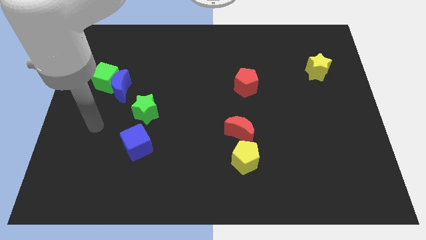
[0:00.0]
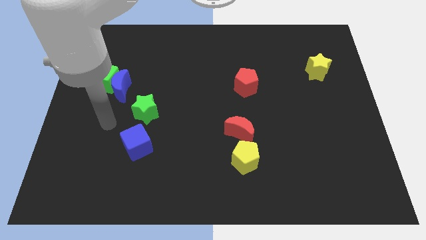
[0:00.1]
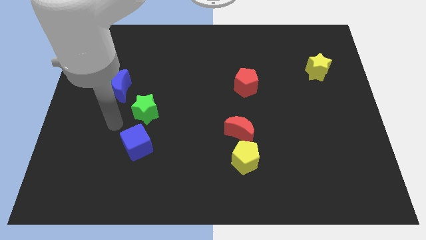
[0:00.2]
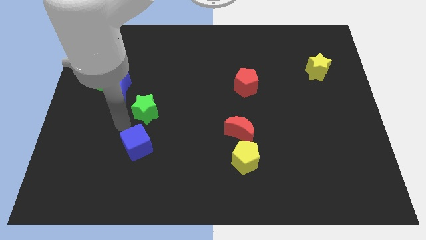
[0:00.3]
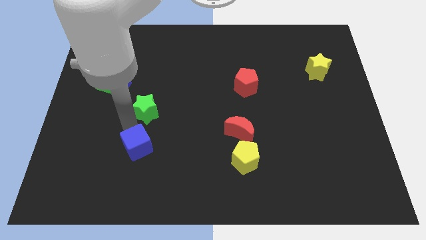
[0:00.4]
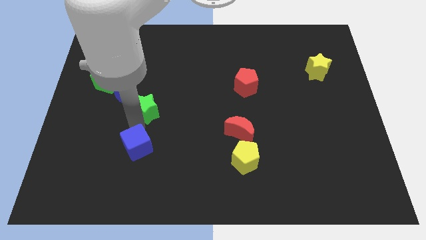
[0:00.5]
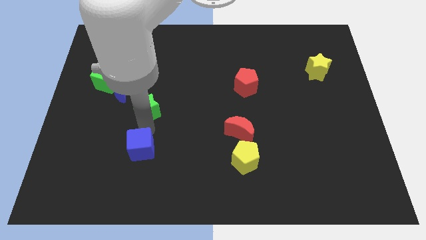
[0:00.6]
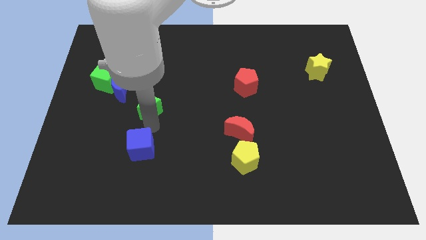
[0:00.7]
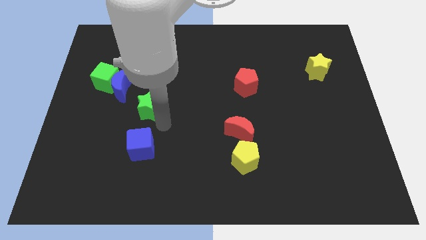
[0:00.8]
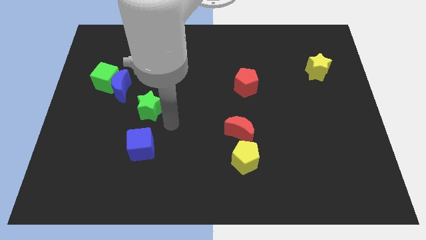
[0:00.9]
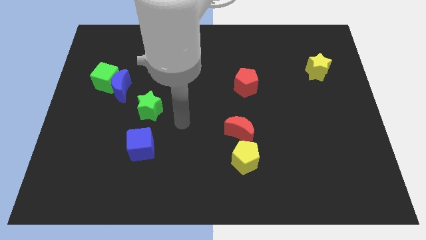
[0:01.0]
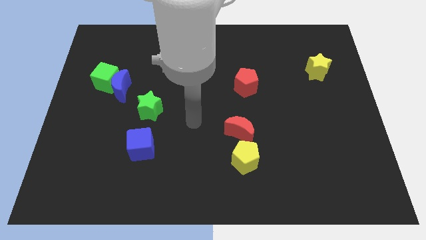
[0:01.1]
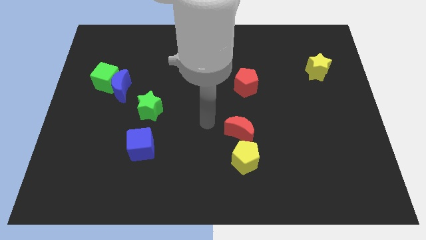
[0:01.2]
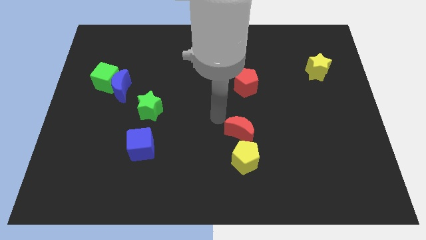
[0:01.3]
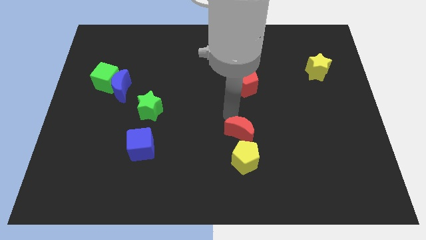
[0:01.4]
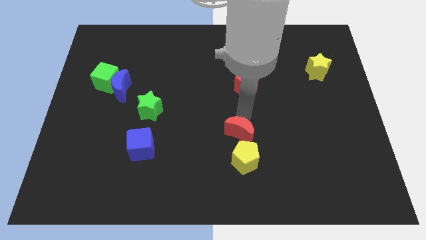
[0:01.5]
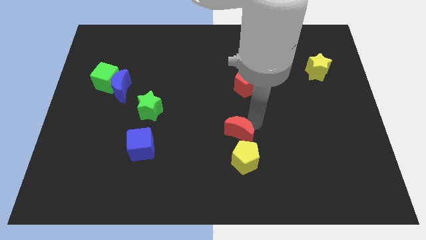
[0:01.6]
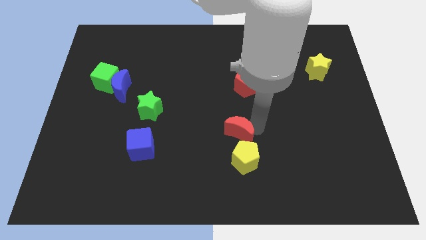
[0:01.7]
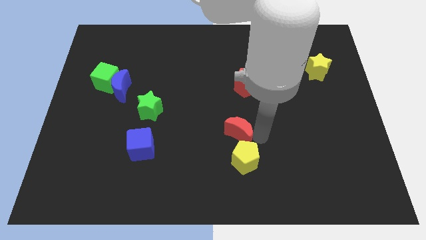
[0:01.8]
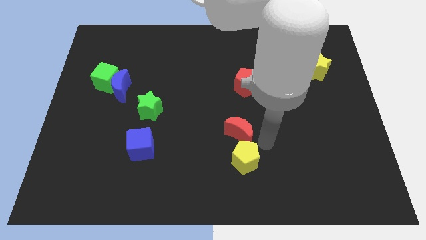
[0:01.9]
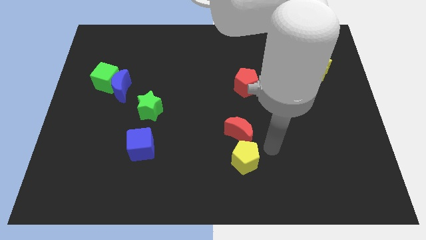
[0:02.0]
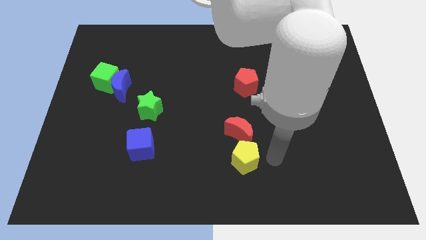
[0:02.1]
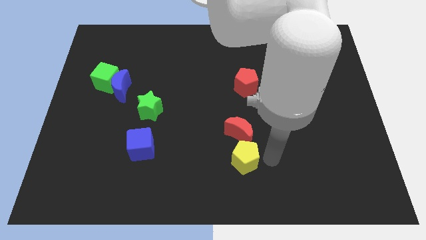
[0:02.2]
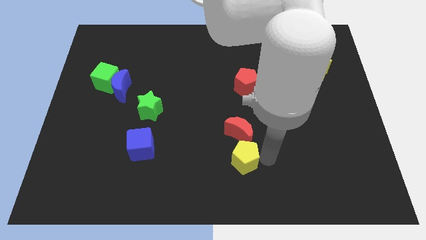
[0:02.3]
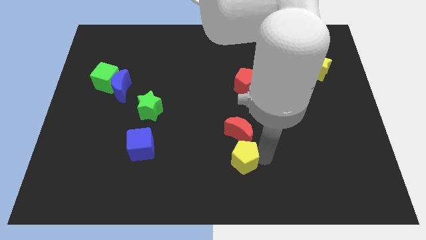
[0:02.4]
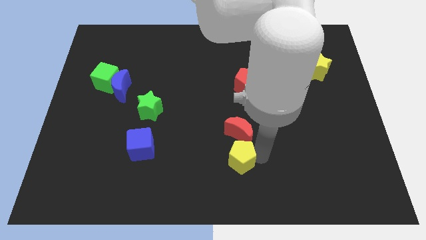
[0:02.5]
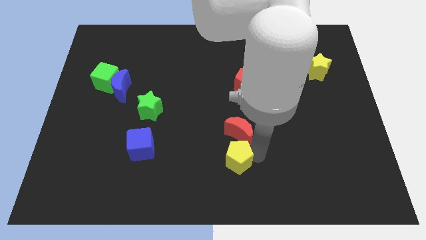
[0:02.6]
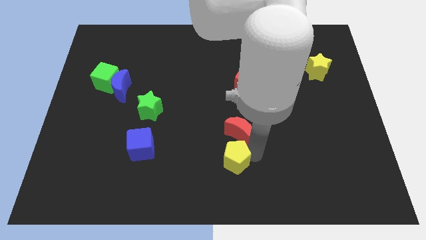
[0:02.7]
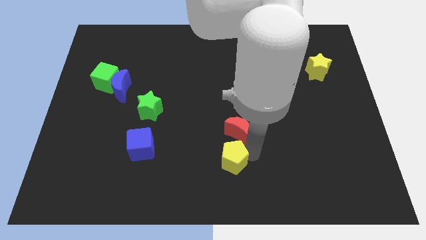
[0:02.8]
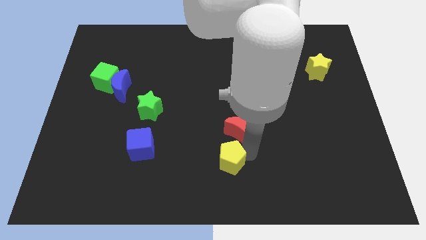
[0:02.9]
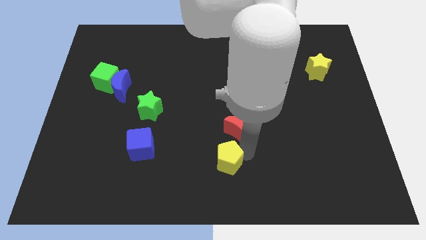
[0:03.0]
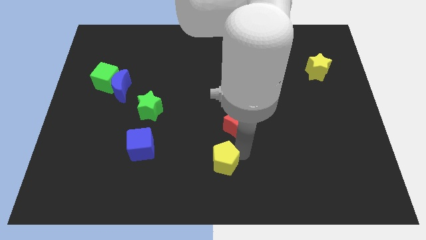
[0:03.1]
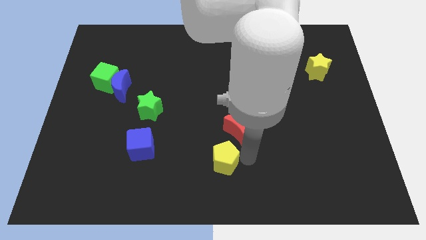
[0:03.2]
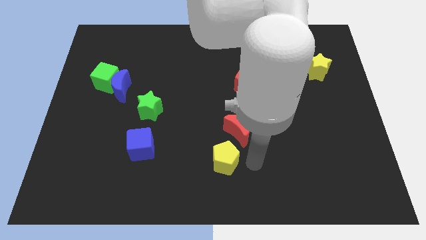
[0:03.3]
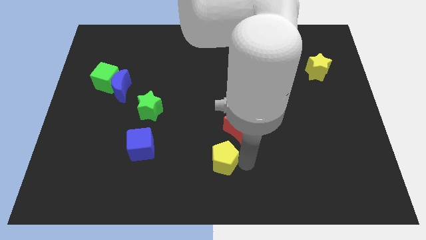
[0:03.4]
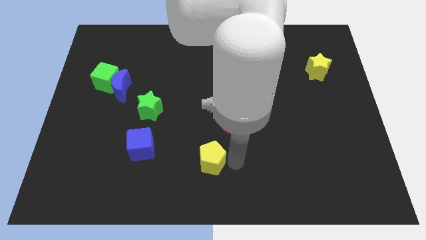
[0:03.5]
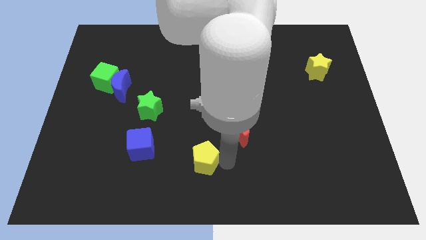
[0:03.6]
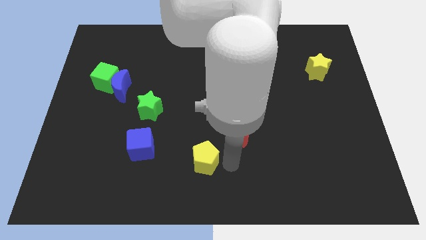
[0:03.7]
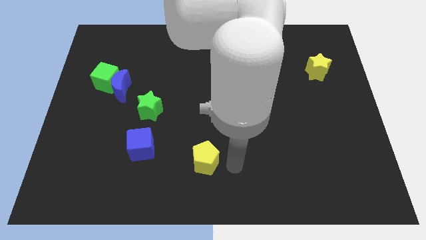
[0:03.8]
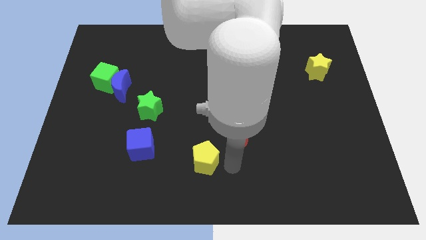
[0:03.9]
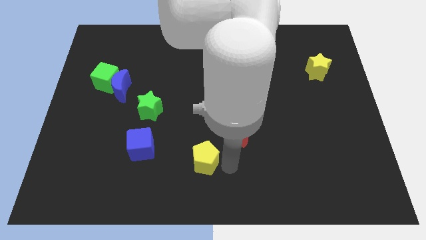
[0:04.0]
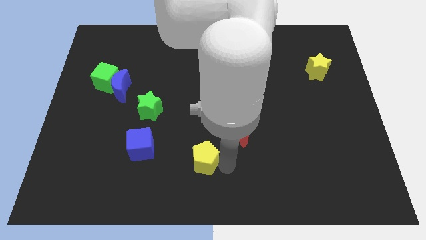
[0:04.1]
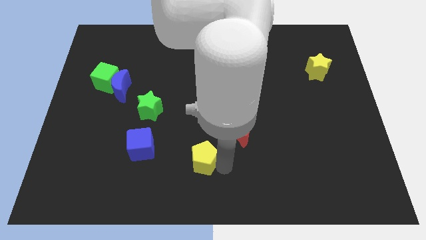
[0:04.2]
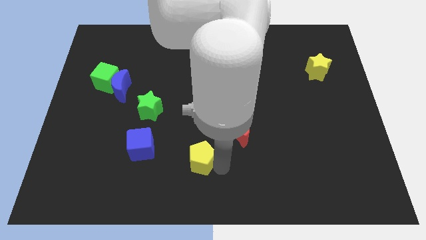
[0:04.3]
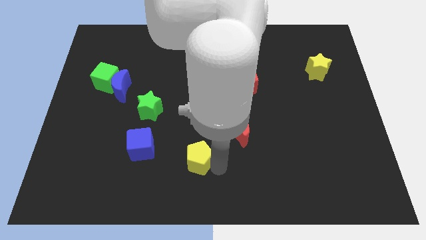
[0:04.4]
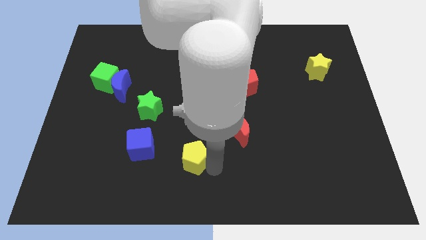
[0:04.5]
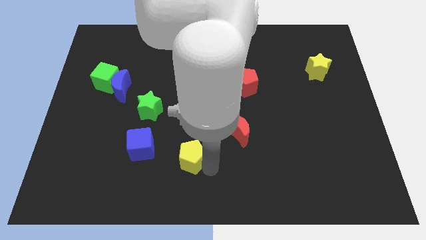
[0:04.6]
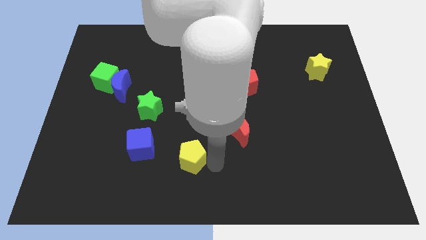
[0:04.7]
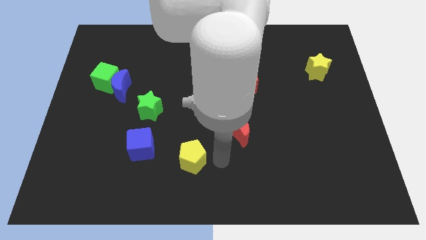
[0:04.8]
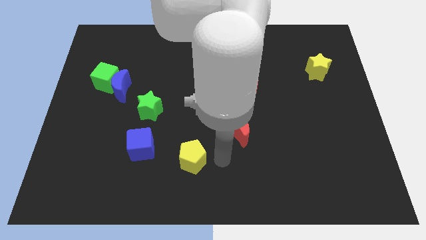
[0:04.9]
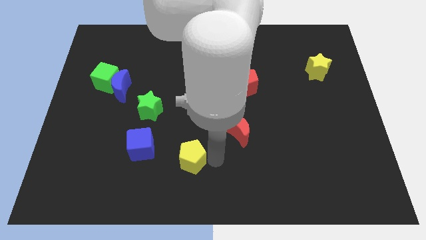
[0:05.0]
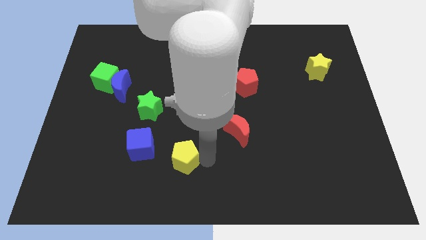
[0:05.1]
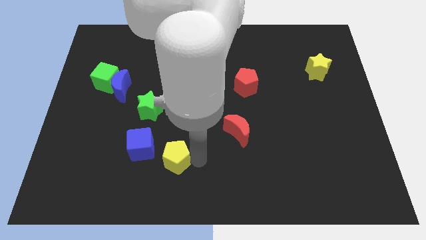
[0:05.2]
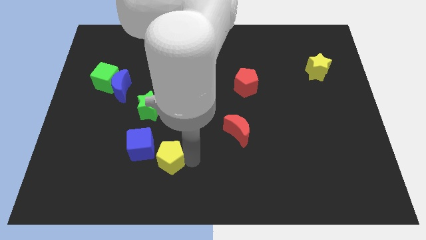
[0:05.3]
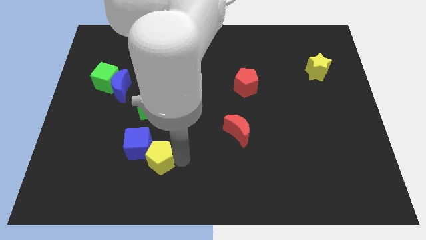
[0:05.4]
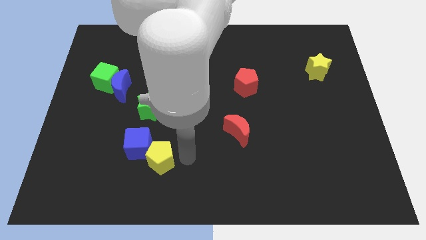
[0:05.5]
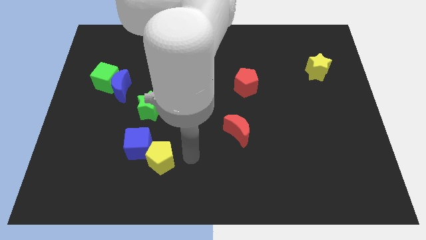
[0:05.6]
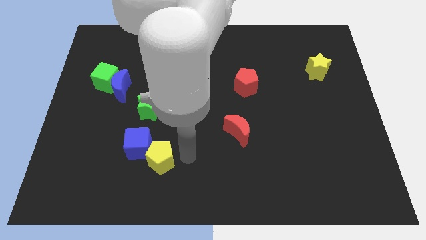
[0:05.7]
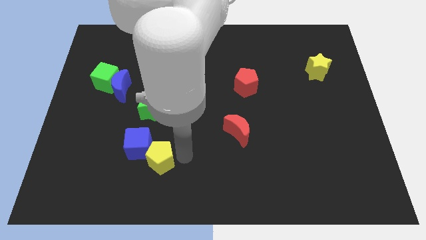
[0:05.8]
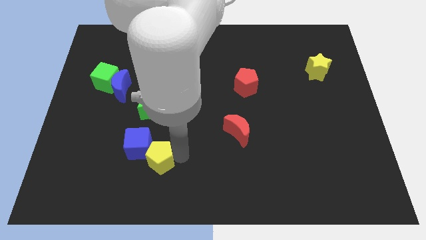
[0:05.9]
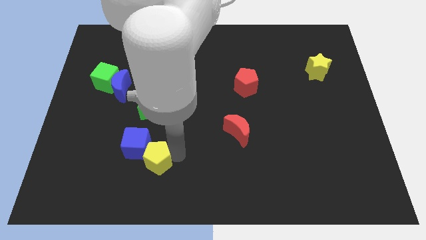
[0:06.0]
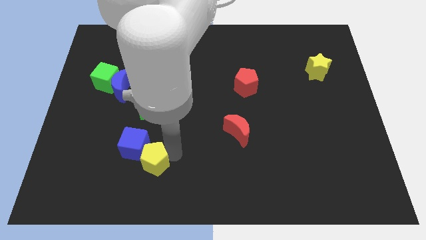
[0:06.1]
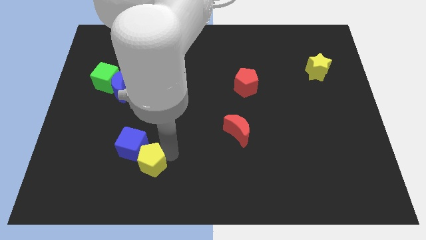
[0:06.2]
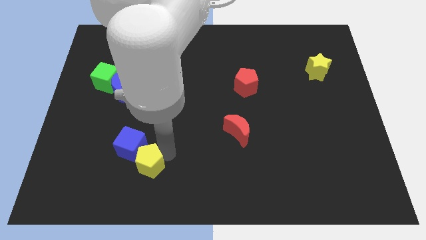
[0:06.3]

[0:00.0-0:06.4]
slide the yellow pentagon left

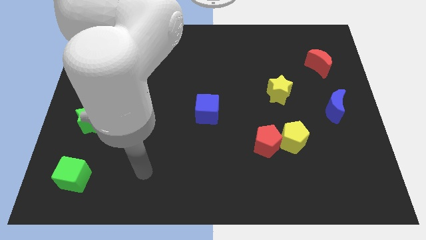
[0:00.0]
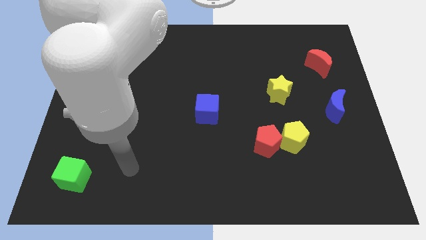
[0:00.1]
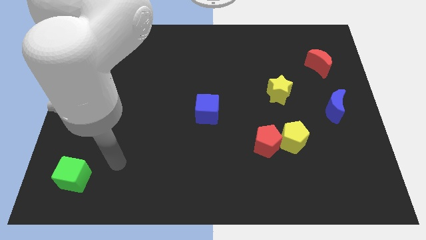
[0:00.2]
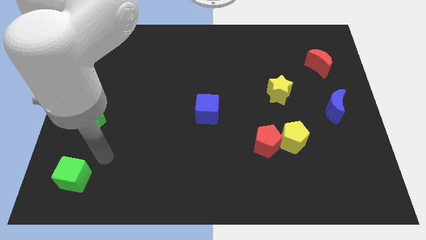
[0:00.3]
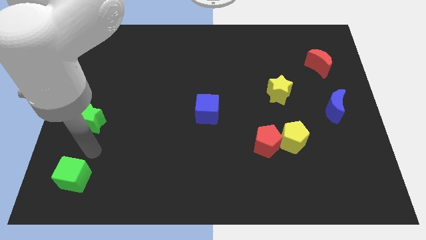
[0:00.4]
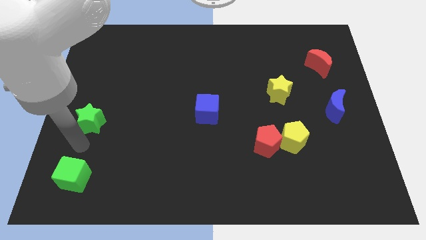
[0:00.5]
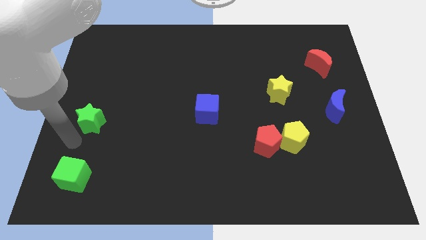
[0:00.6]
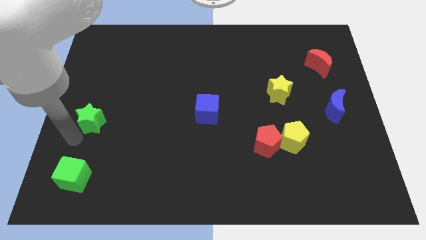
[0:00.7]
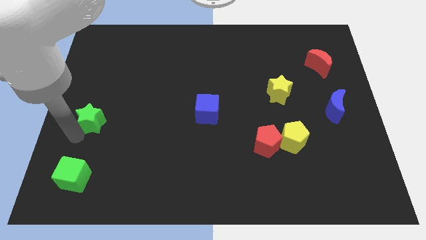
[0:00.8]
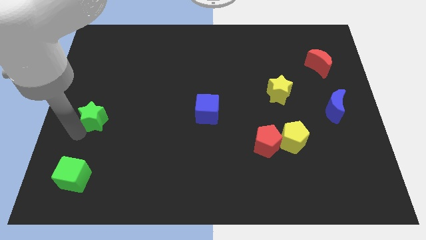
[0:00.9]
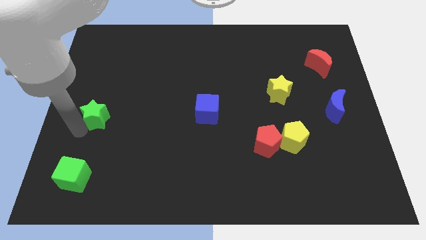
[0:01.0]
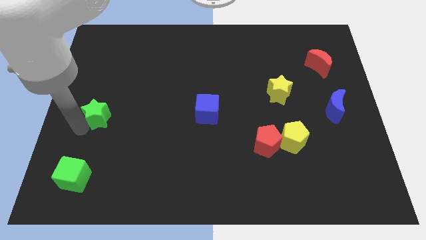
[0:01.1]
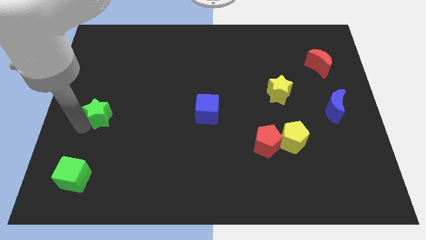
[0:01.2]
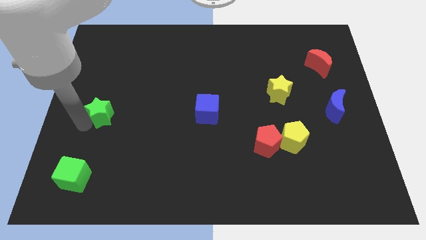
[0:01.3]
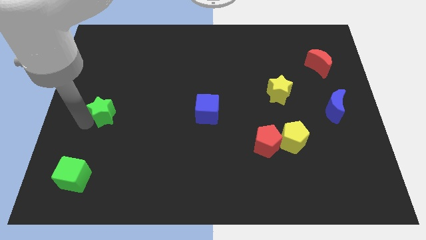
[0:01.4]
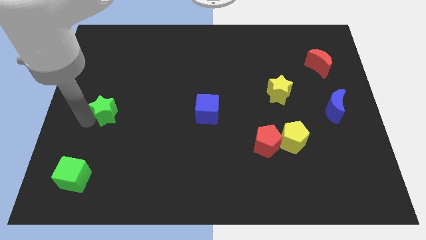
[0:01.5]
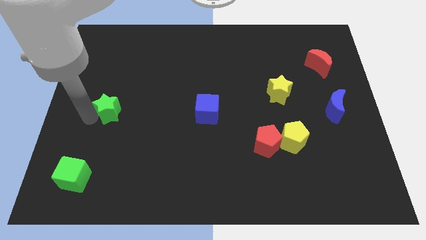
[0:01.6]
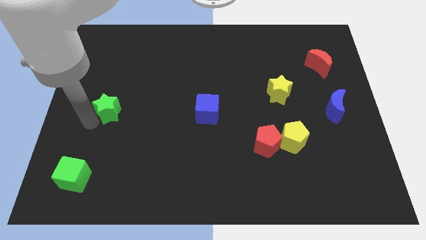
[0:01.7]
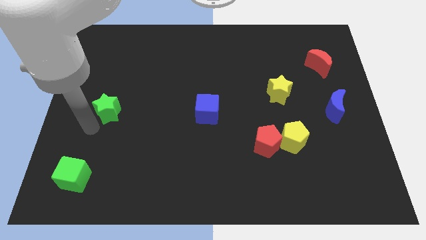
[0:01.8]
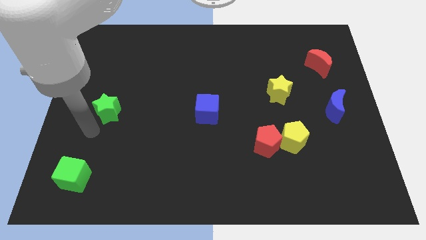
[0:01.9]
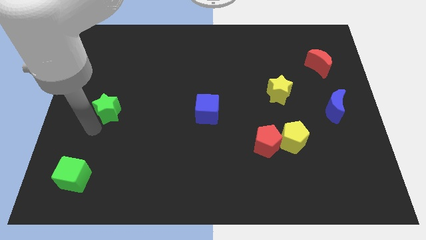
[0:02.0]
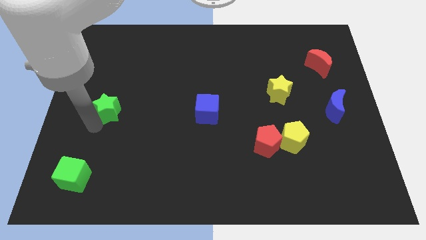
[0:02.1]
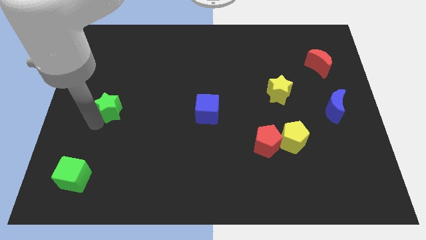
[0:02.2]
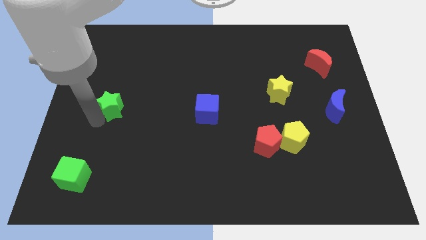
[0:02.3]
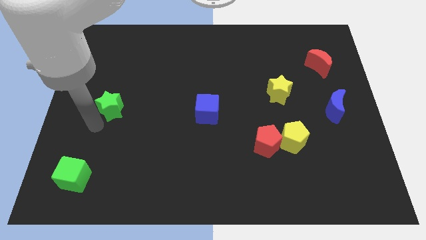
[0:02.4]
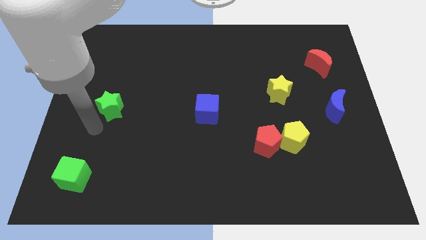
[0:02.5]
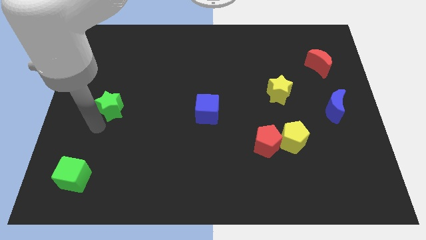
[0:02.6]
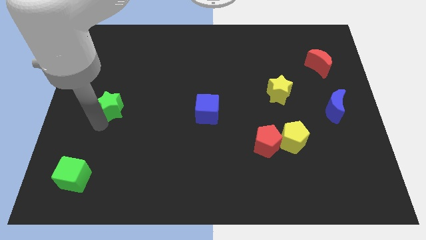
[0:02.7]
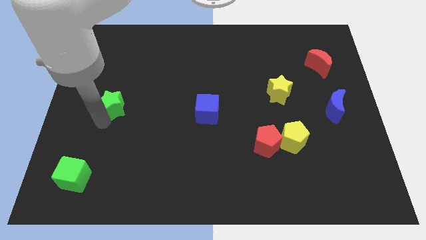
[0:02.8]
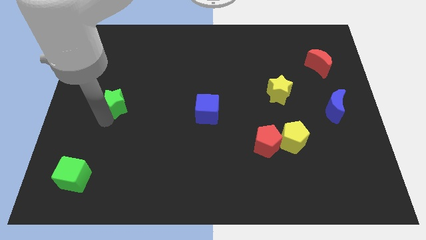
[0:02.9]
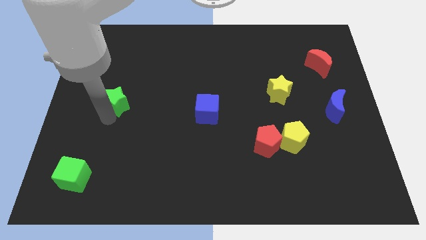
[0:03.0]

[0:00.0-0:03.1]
move the green star up and then right a little bit
